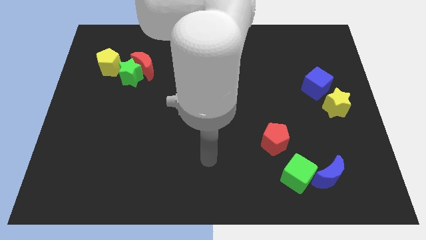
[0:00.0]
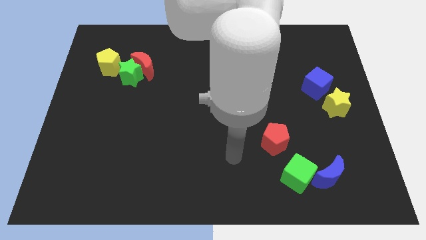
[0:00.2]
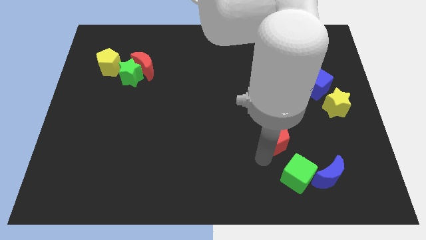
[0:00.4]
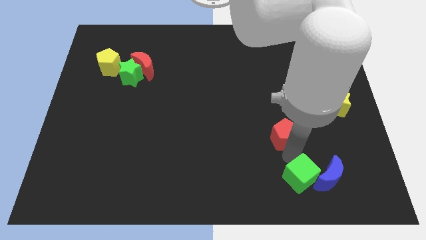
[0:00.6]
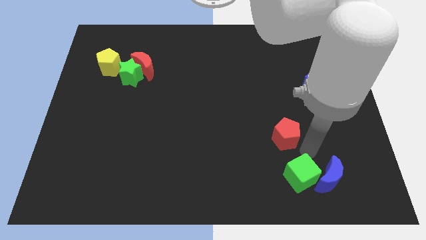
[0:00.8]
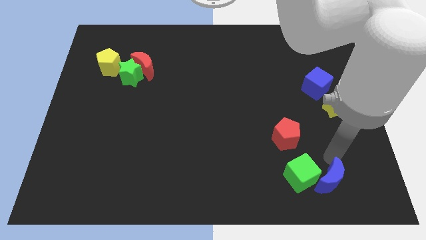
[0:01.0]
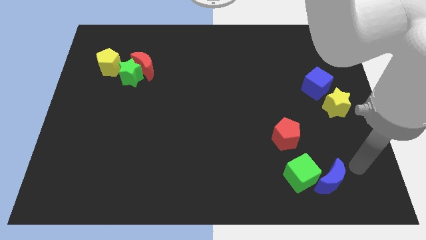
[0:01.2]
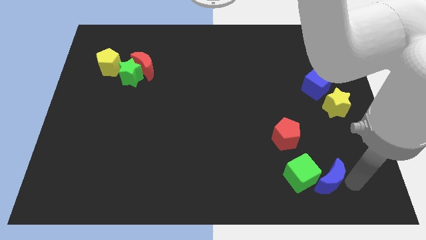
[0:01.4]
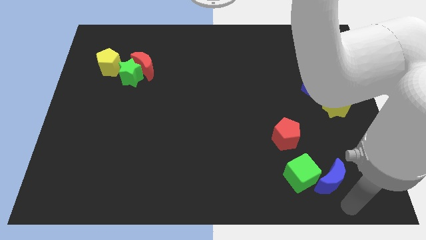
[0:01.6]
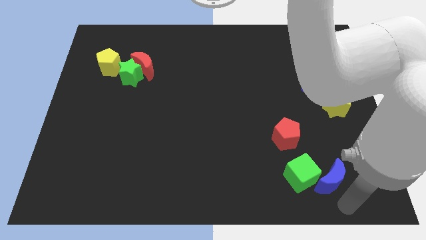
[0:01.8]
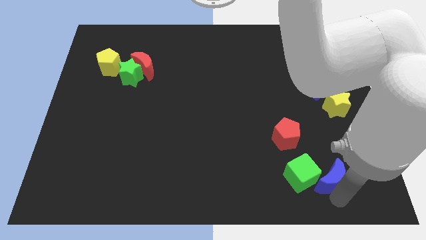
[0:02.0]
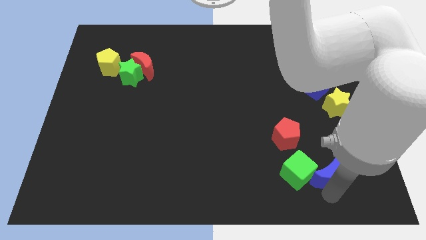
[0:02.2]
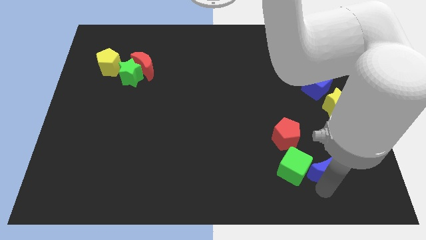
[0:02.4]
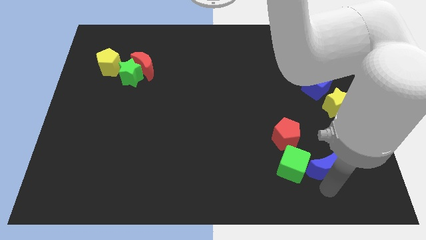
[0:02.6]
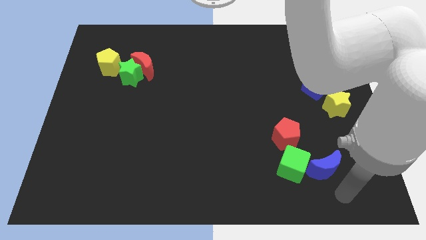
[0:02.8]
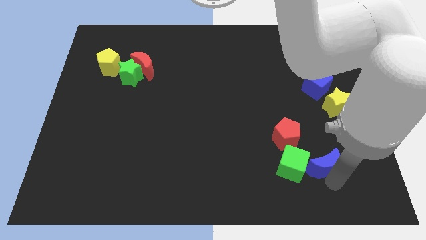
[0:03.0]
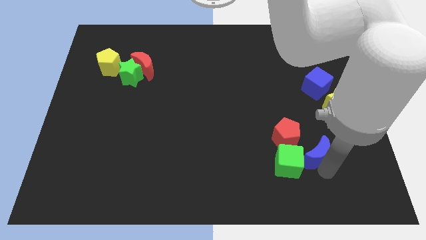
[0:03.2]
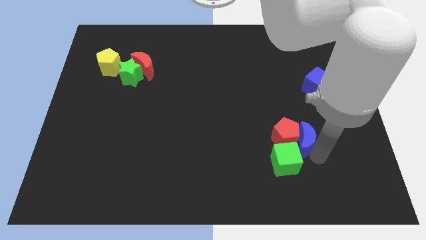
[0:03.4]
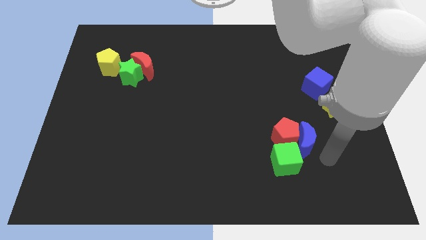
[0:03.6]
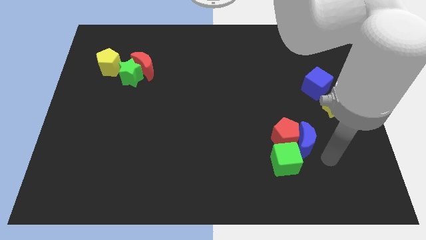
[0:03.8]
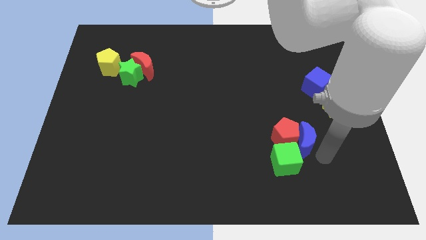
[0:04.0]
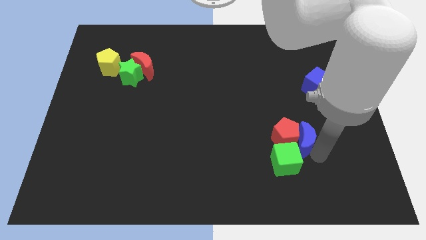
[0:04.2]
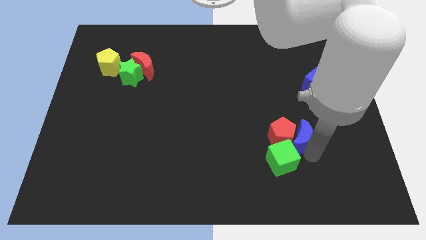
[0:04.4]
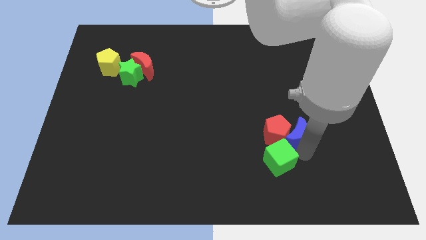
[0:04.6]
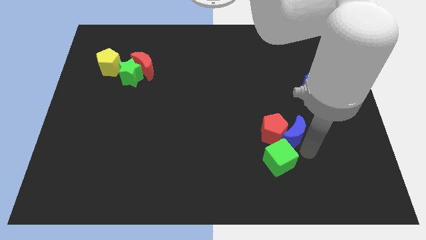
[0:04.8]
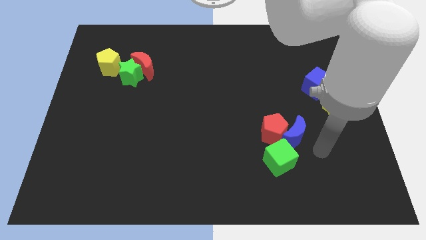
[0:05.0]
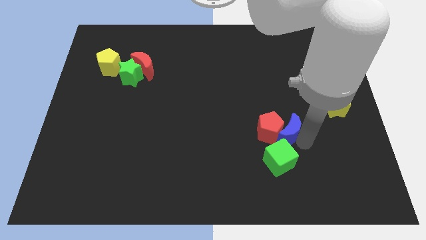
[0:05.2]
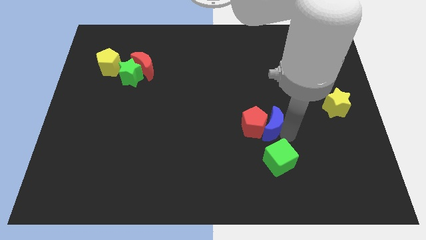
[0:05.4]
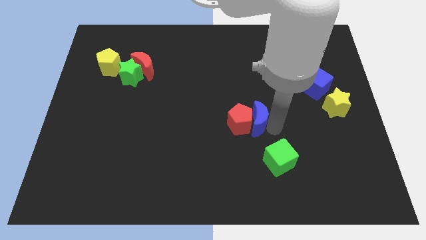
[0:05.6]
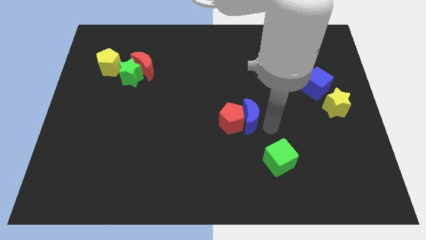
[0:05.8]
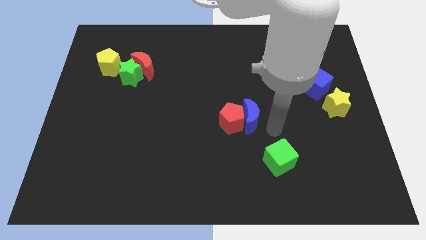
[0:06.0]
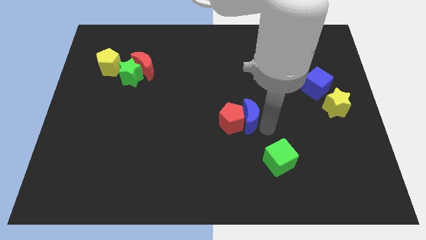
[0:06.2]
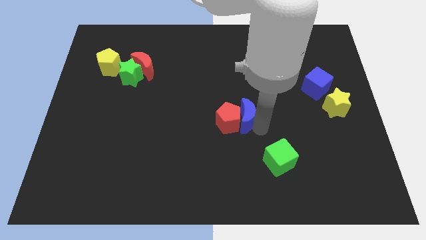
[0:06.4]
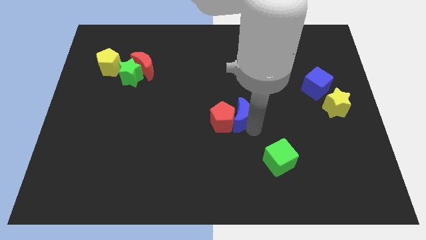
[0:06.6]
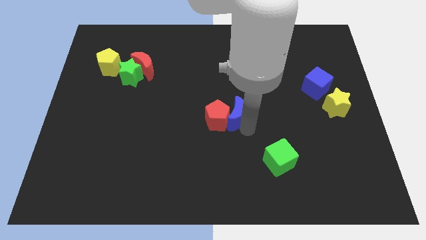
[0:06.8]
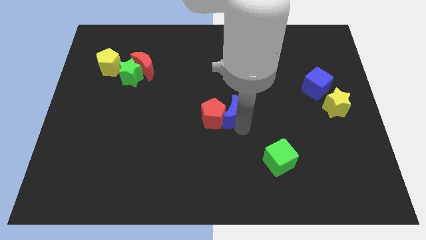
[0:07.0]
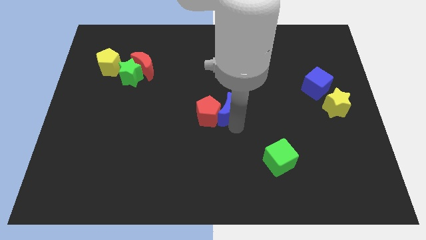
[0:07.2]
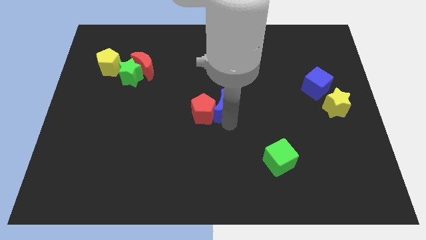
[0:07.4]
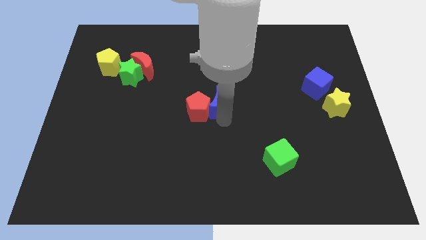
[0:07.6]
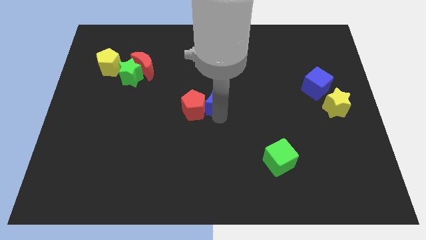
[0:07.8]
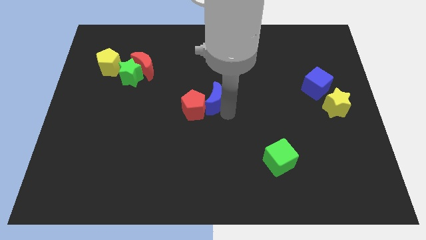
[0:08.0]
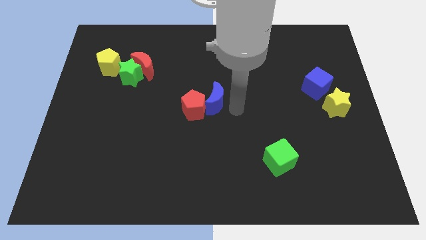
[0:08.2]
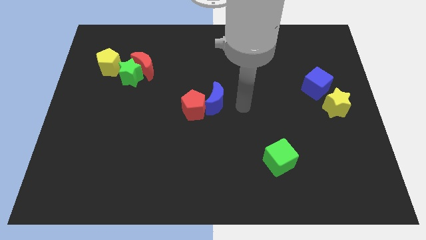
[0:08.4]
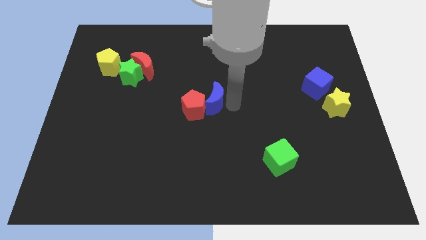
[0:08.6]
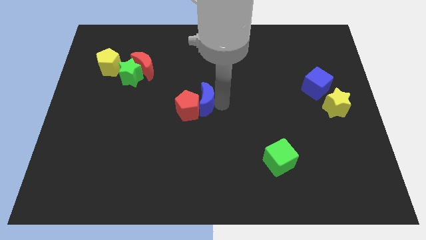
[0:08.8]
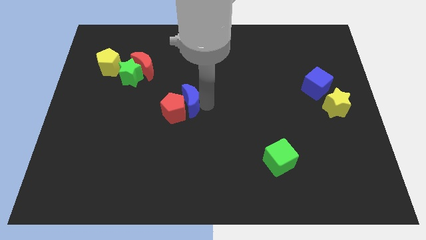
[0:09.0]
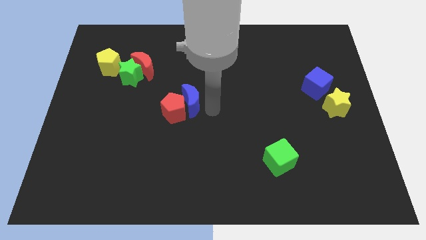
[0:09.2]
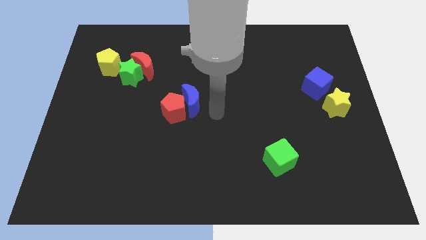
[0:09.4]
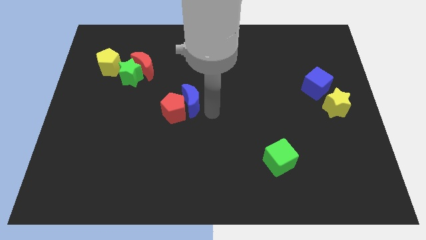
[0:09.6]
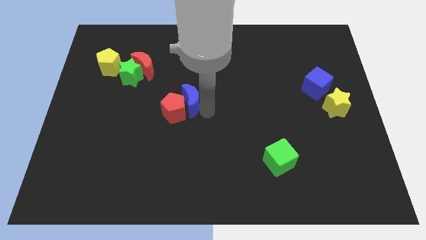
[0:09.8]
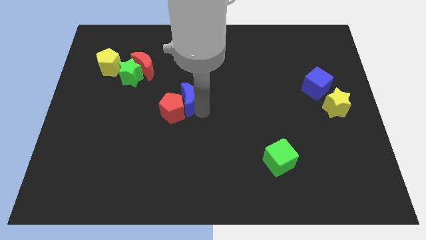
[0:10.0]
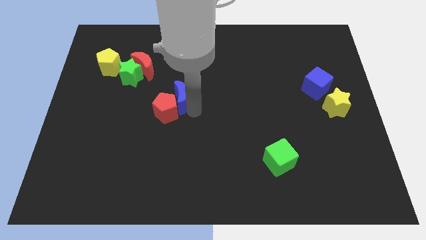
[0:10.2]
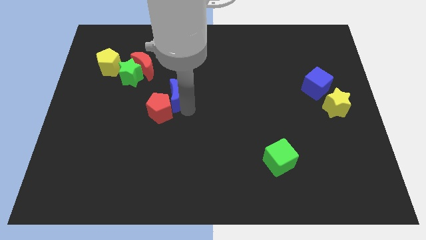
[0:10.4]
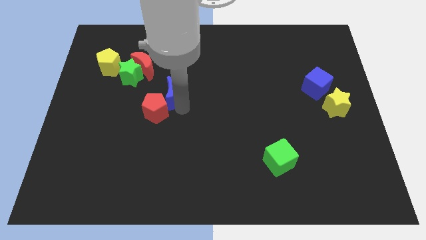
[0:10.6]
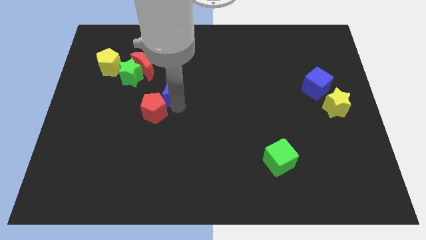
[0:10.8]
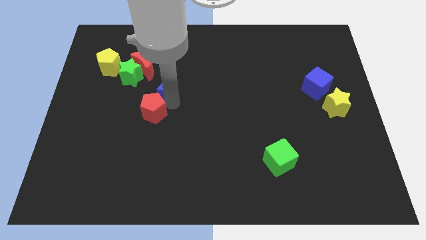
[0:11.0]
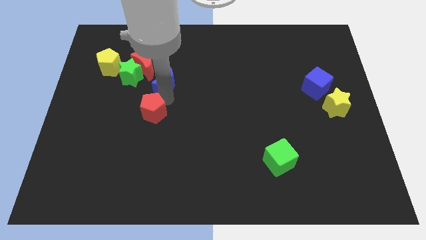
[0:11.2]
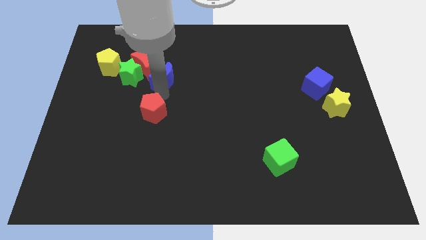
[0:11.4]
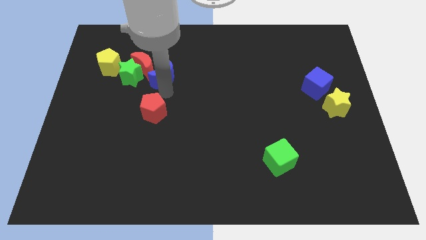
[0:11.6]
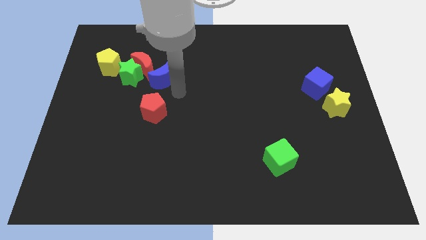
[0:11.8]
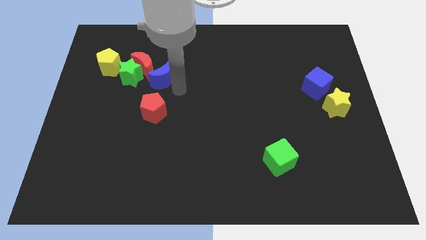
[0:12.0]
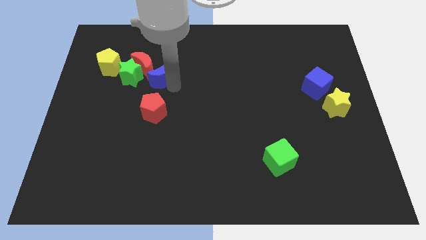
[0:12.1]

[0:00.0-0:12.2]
move the blue moon towards the red moon

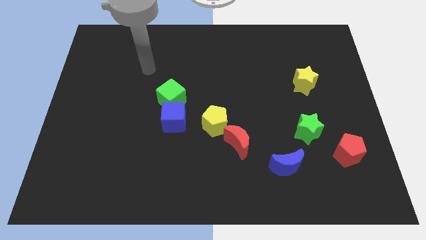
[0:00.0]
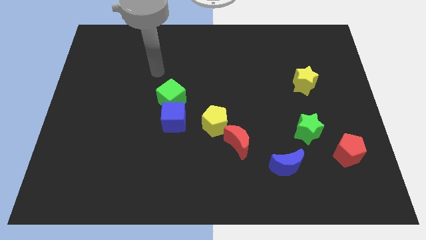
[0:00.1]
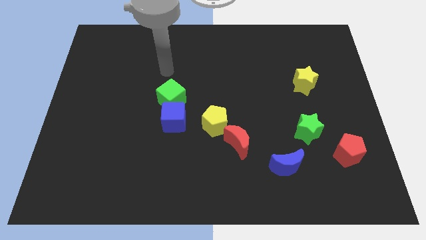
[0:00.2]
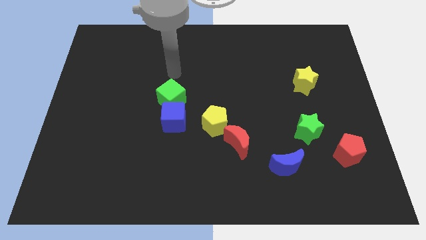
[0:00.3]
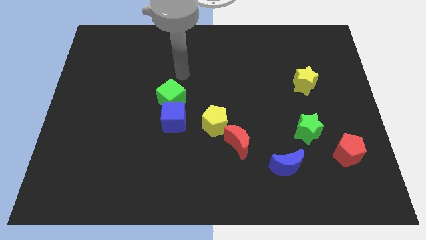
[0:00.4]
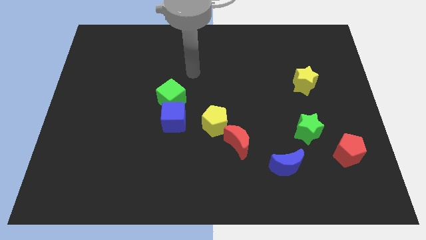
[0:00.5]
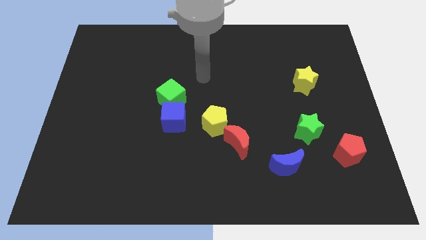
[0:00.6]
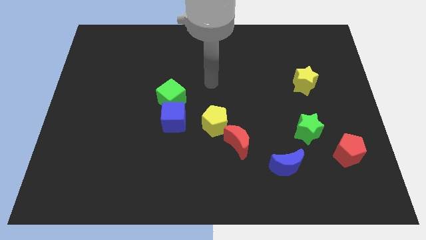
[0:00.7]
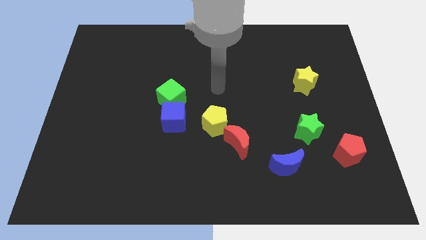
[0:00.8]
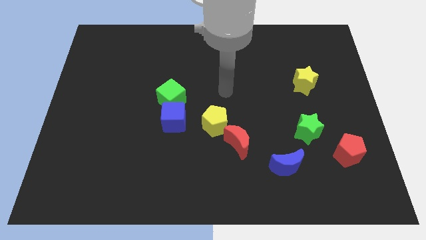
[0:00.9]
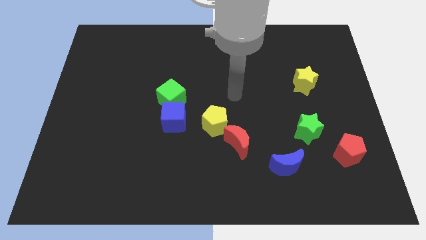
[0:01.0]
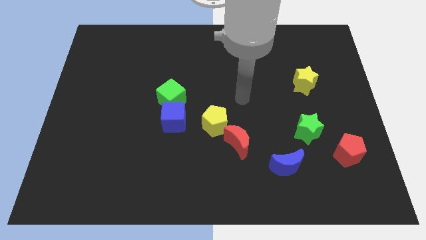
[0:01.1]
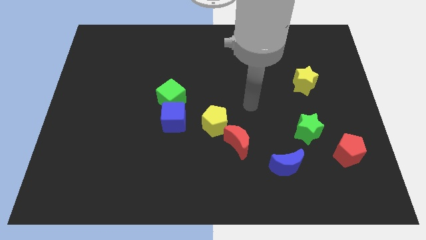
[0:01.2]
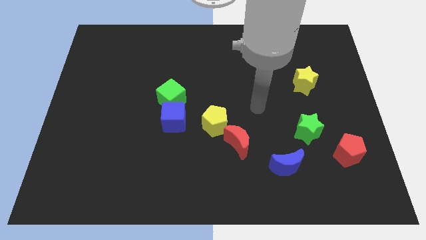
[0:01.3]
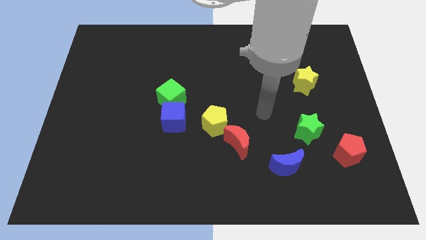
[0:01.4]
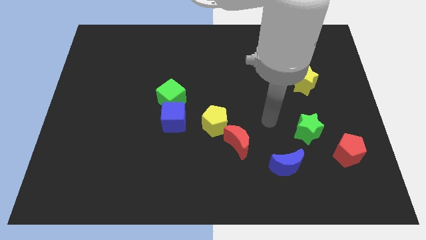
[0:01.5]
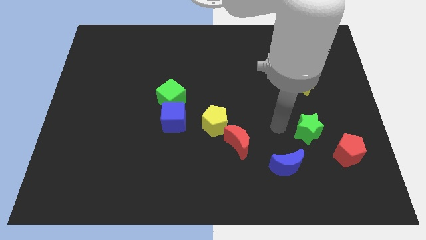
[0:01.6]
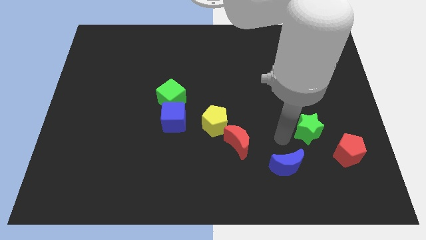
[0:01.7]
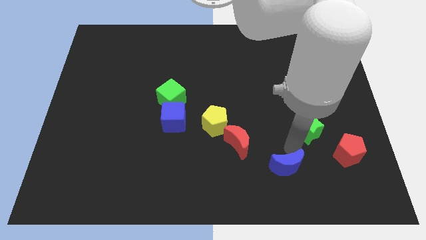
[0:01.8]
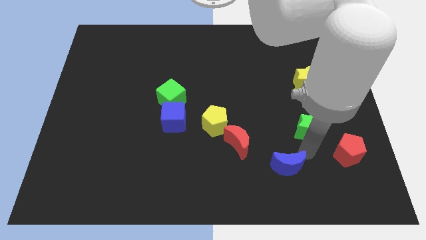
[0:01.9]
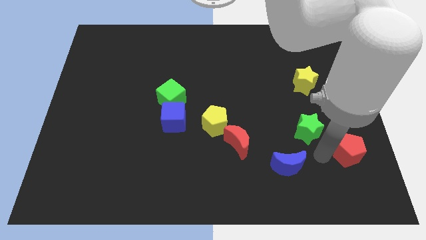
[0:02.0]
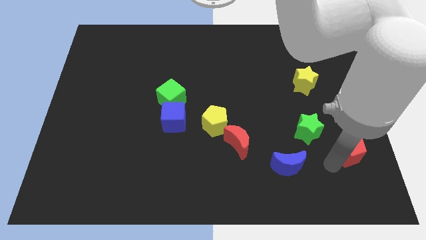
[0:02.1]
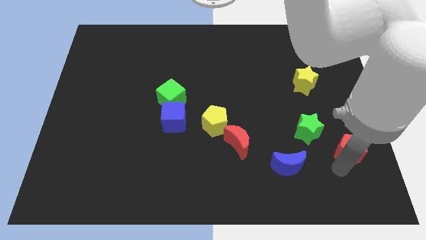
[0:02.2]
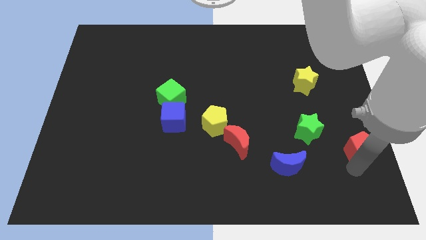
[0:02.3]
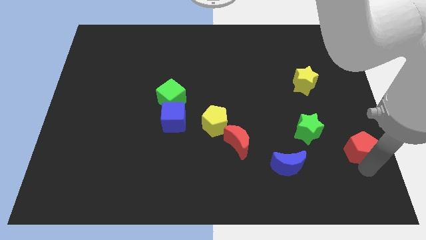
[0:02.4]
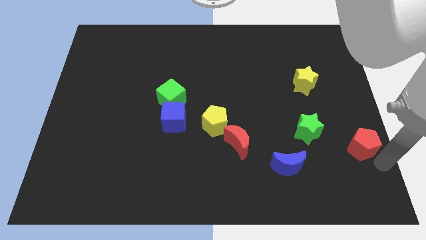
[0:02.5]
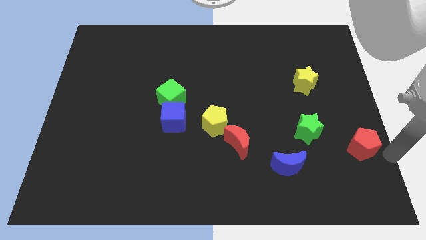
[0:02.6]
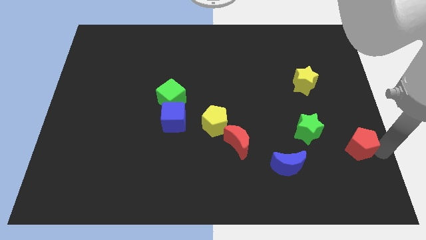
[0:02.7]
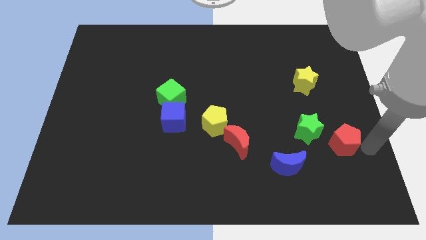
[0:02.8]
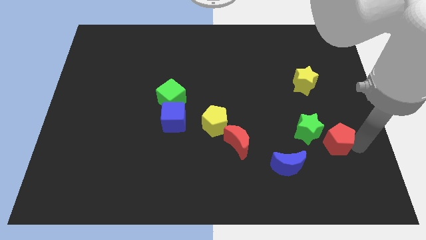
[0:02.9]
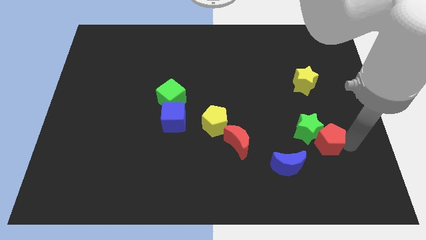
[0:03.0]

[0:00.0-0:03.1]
push the red pentagon close to the green star
